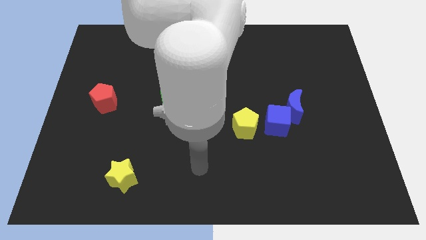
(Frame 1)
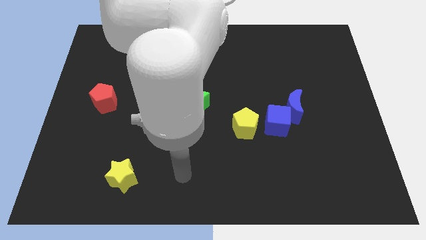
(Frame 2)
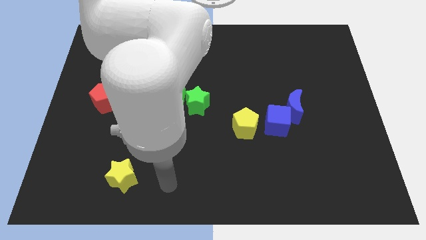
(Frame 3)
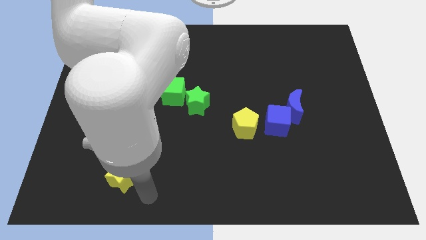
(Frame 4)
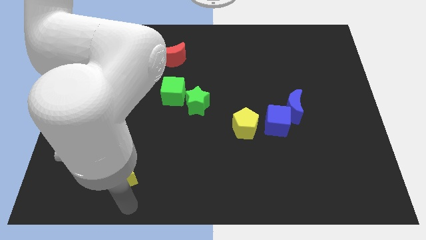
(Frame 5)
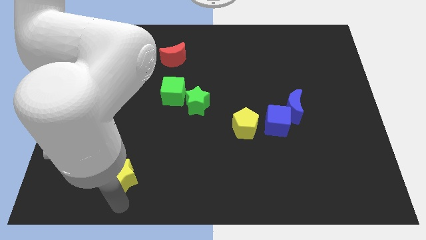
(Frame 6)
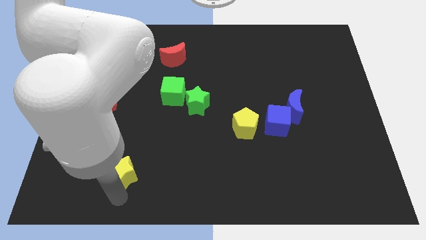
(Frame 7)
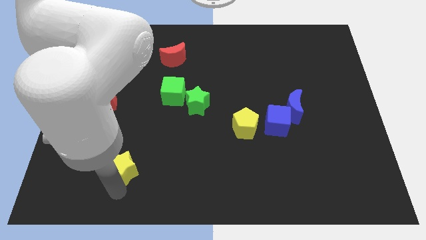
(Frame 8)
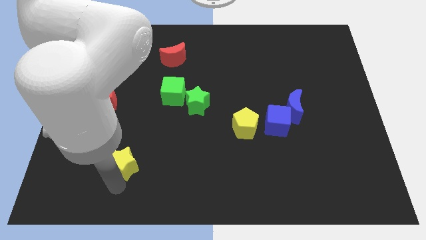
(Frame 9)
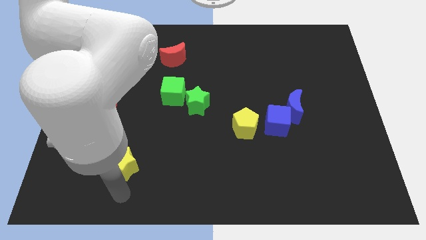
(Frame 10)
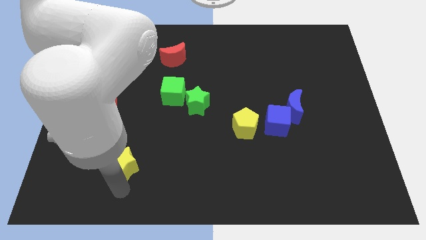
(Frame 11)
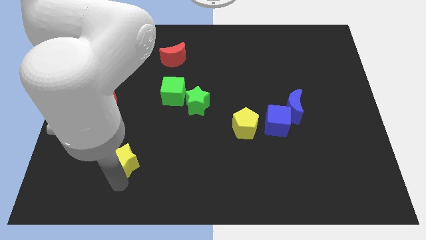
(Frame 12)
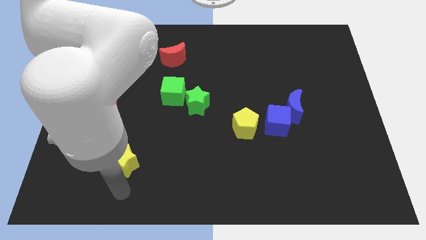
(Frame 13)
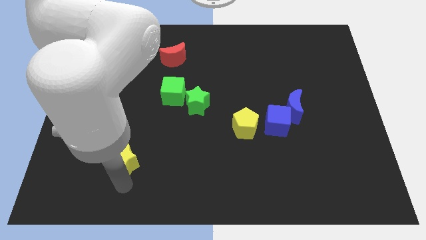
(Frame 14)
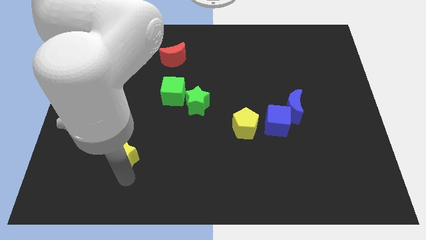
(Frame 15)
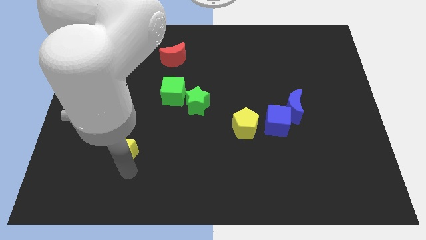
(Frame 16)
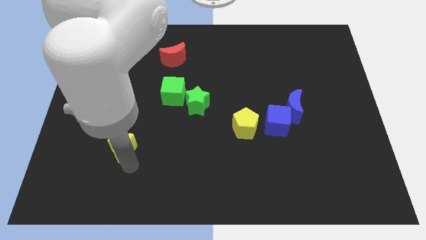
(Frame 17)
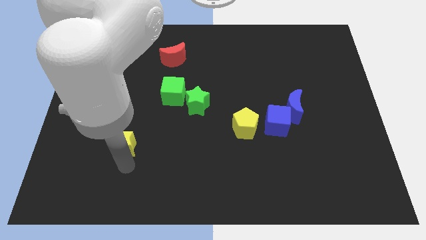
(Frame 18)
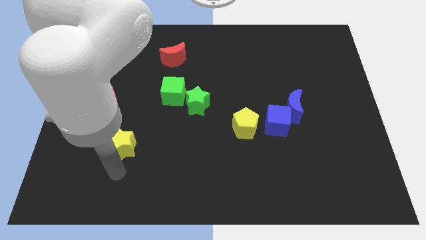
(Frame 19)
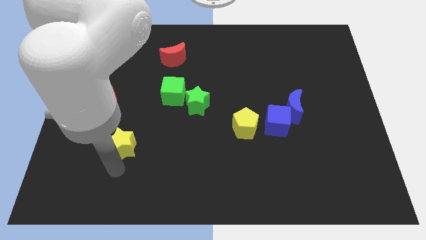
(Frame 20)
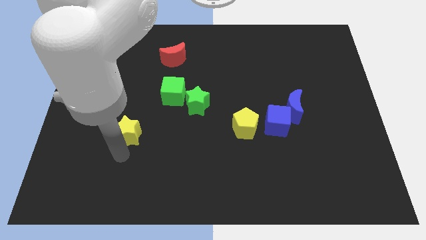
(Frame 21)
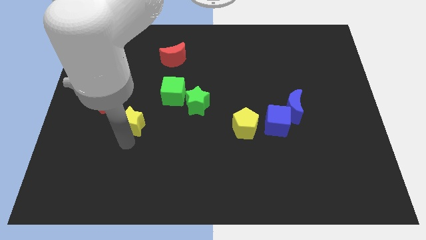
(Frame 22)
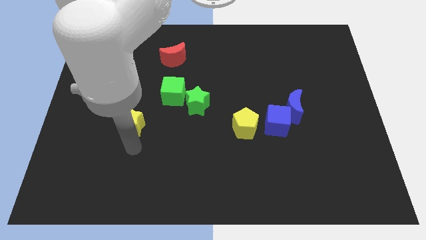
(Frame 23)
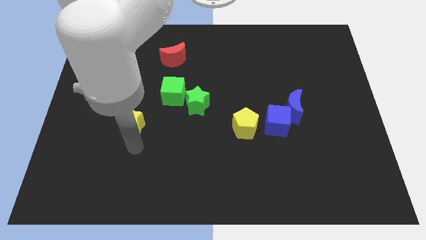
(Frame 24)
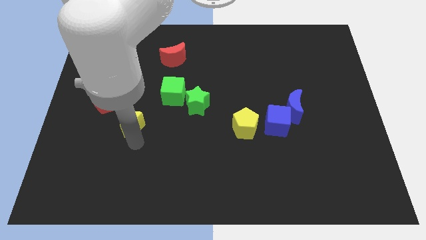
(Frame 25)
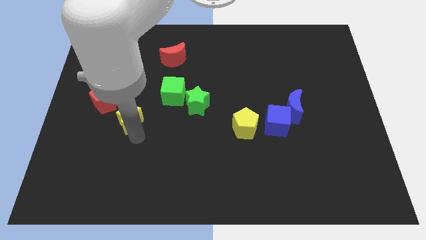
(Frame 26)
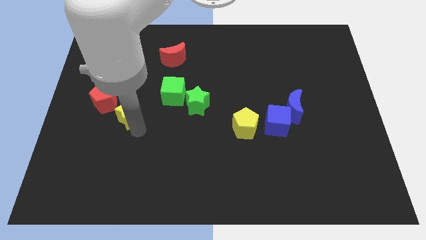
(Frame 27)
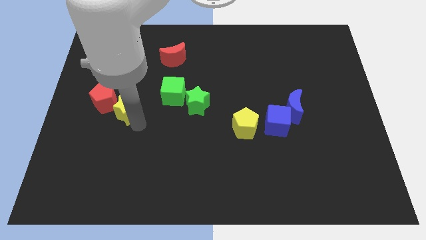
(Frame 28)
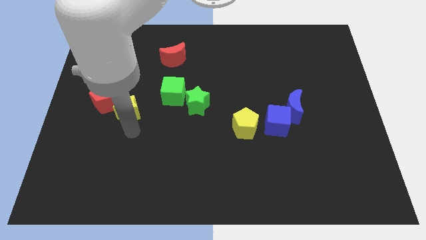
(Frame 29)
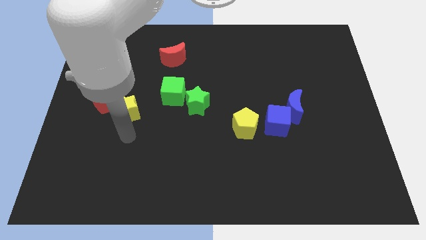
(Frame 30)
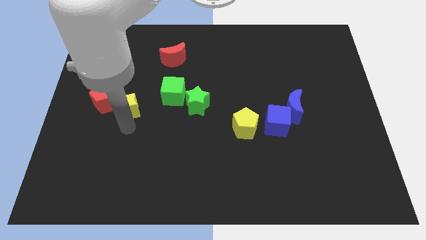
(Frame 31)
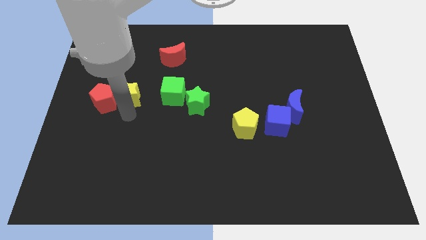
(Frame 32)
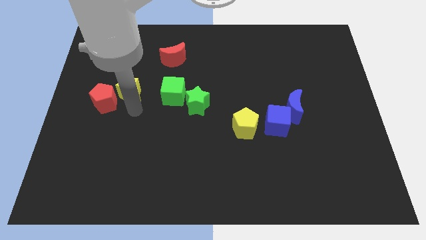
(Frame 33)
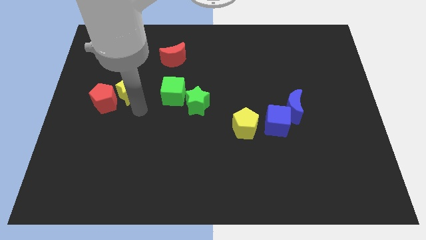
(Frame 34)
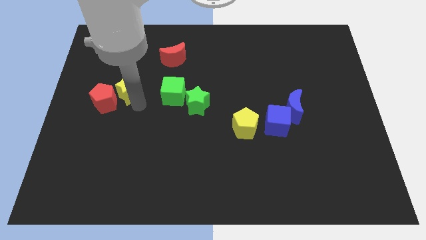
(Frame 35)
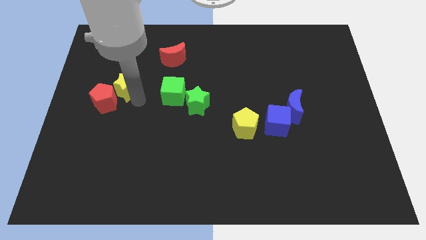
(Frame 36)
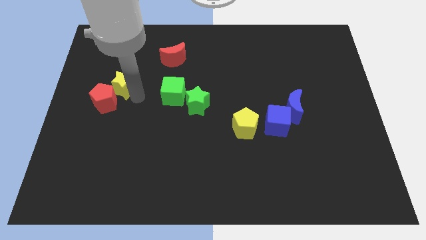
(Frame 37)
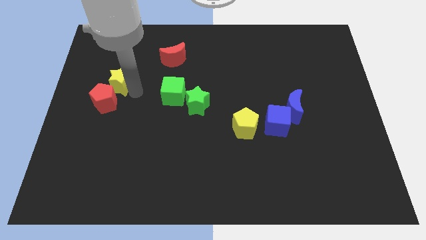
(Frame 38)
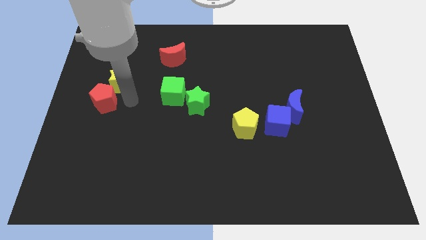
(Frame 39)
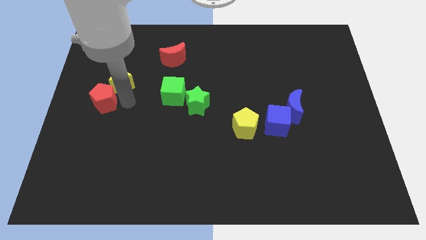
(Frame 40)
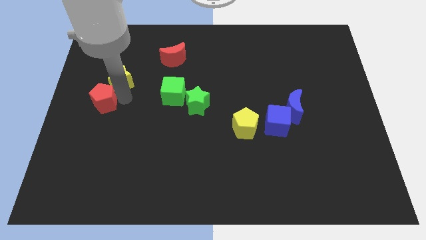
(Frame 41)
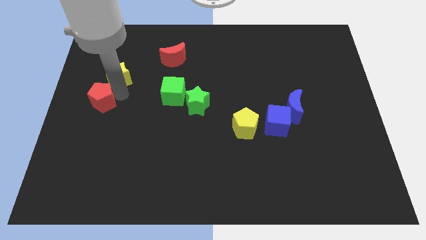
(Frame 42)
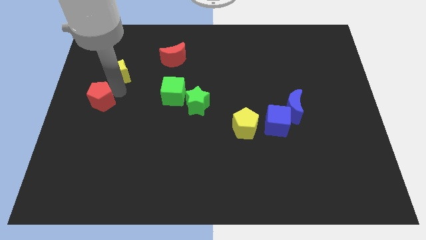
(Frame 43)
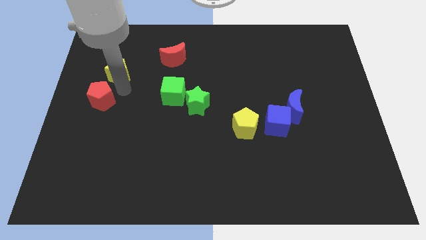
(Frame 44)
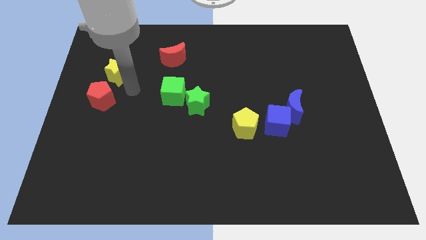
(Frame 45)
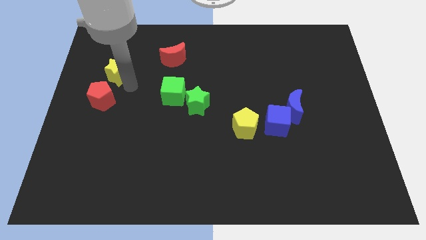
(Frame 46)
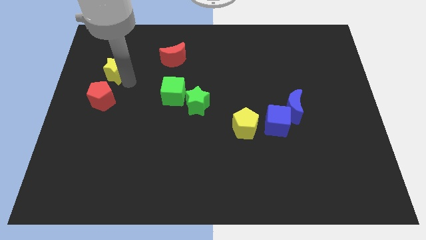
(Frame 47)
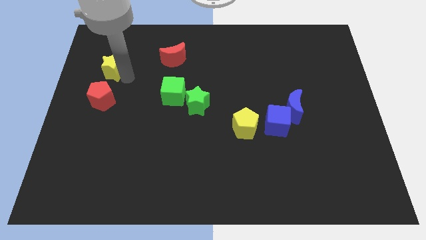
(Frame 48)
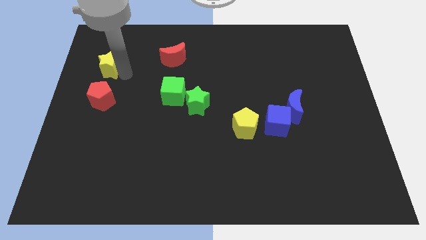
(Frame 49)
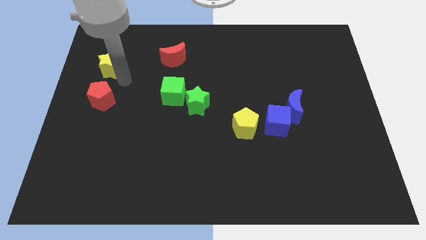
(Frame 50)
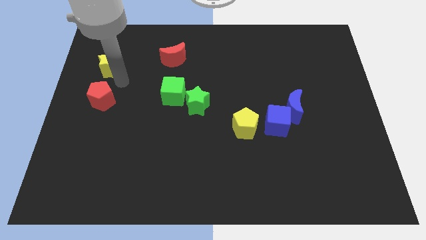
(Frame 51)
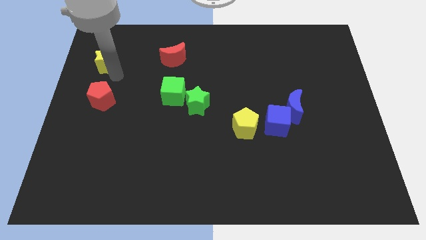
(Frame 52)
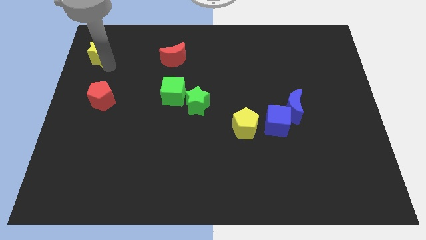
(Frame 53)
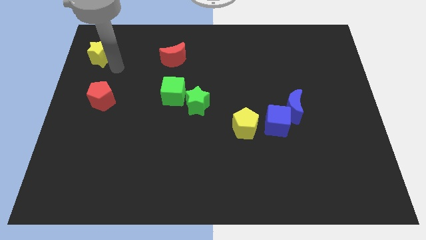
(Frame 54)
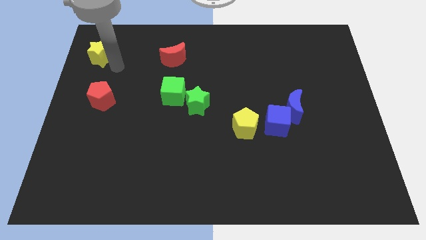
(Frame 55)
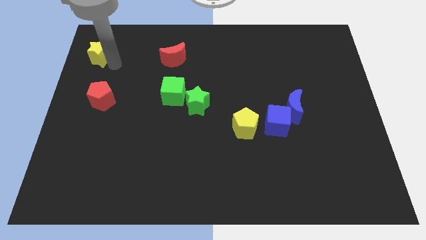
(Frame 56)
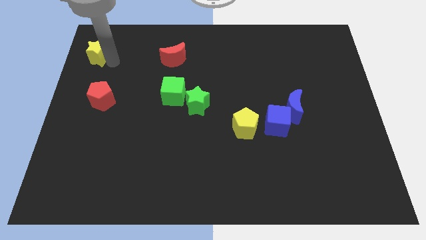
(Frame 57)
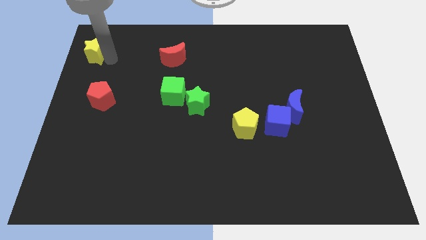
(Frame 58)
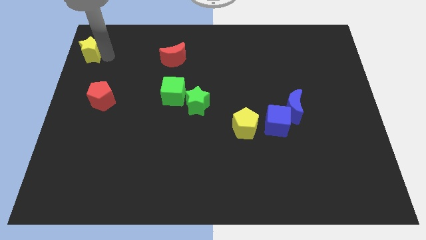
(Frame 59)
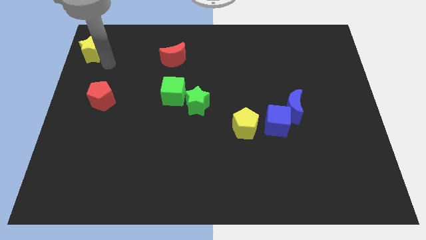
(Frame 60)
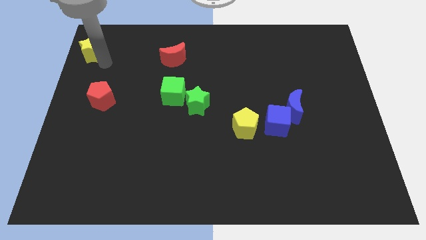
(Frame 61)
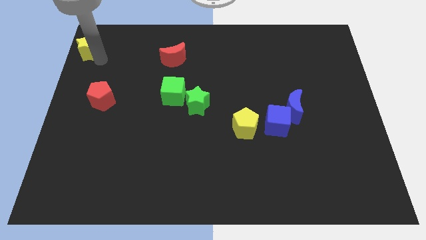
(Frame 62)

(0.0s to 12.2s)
put the yellow star to the top left
